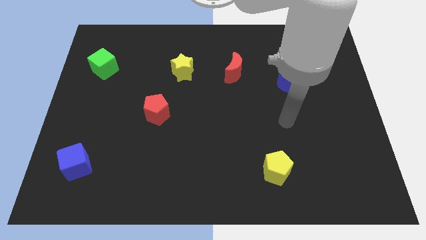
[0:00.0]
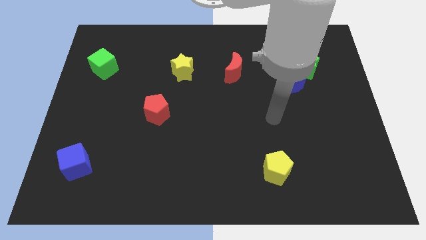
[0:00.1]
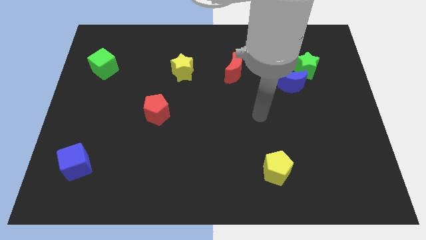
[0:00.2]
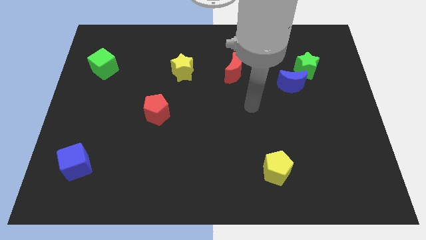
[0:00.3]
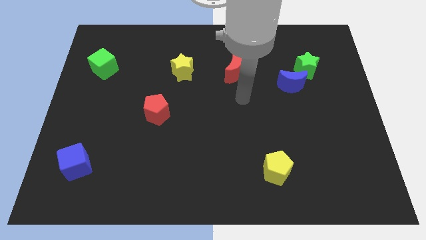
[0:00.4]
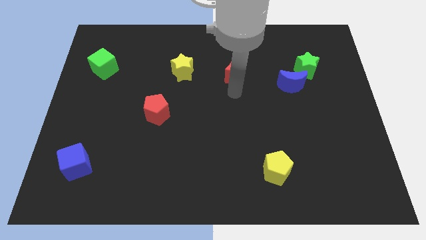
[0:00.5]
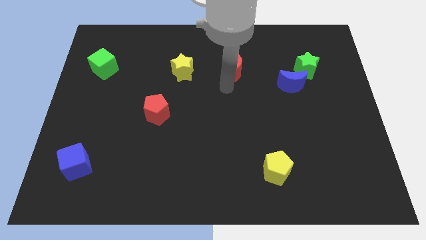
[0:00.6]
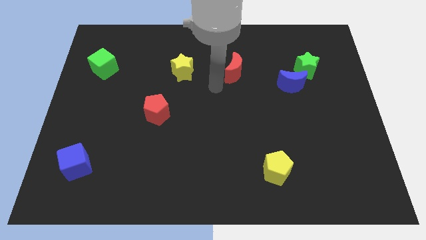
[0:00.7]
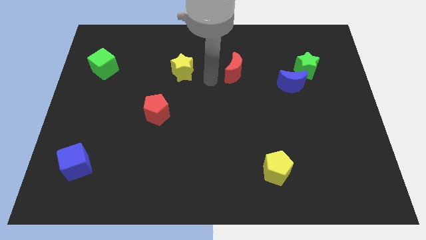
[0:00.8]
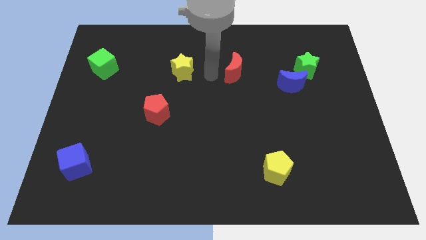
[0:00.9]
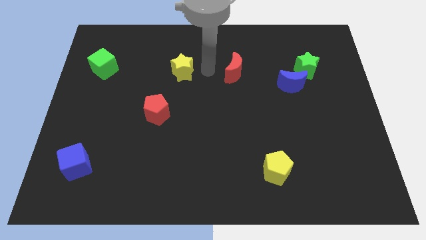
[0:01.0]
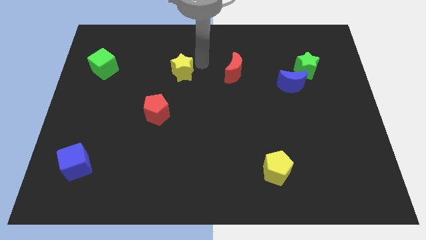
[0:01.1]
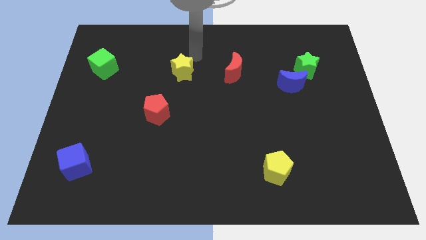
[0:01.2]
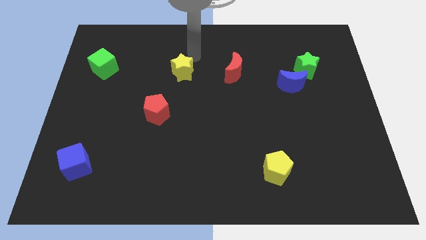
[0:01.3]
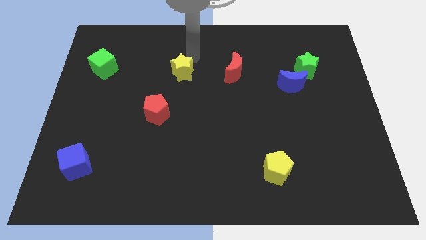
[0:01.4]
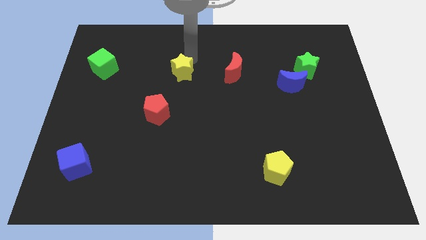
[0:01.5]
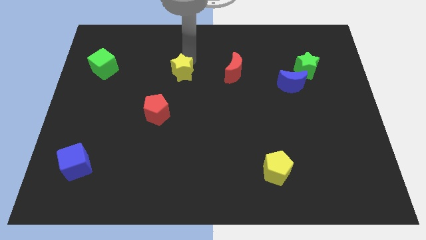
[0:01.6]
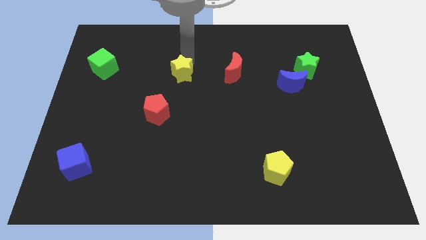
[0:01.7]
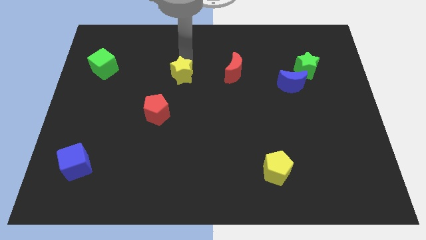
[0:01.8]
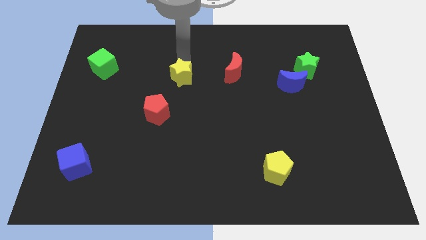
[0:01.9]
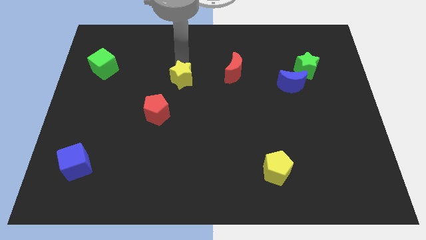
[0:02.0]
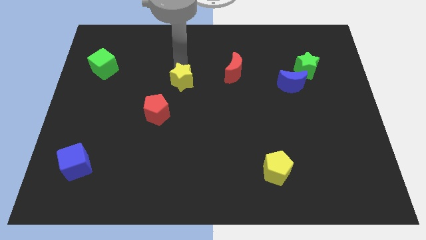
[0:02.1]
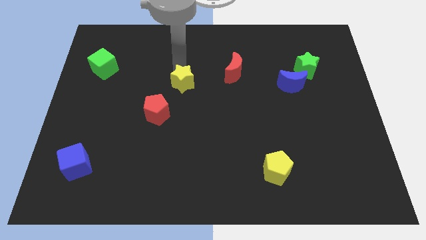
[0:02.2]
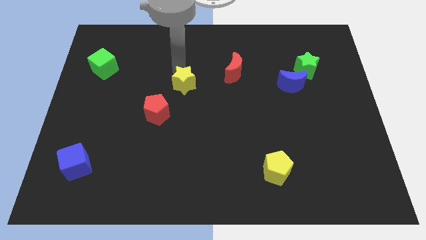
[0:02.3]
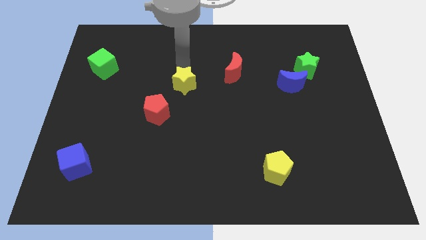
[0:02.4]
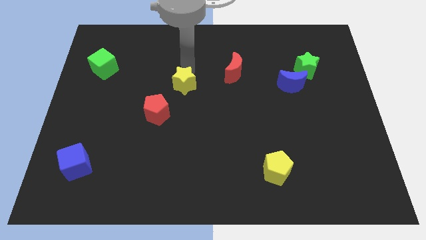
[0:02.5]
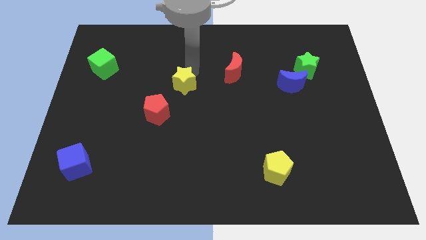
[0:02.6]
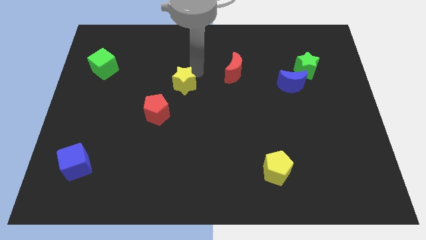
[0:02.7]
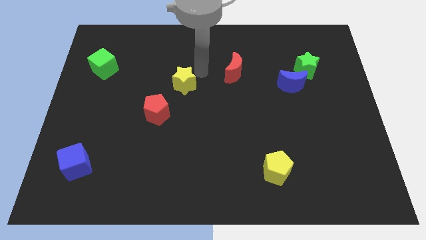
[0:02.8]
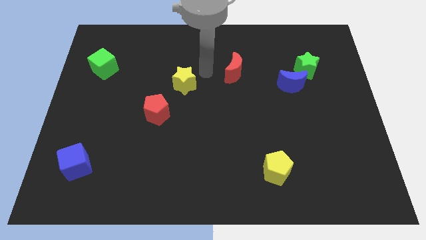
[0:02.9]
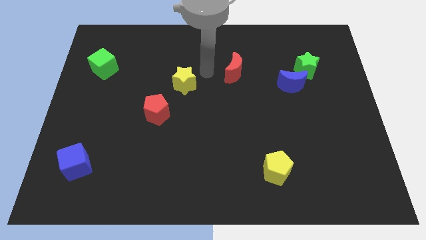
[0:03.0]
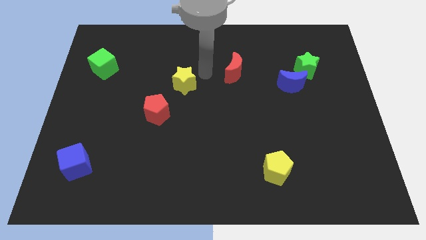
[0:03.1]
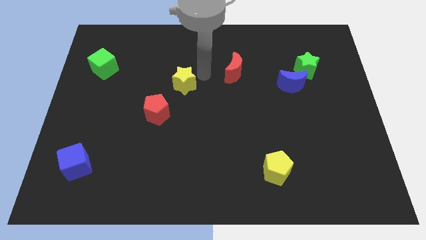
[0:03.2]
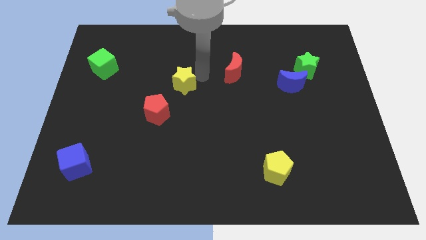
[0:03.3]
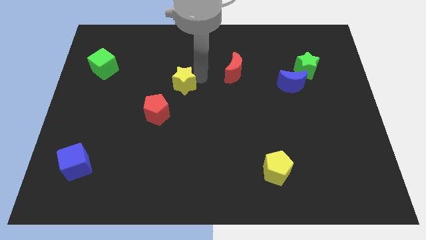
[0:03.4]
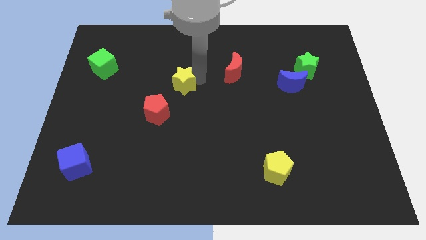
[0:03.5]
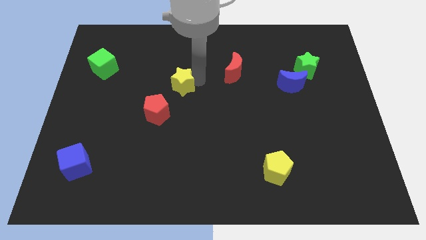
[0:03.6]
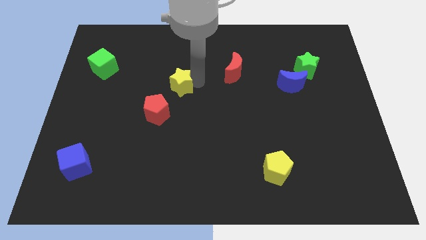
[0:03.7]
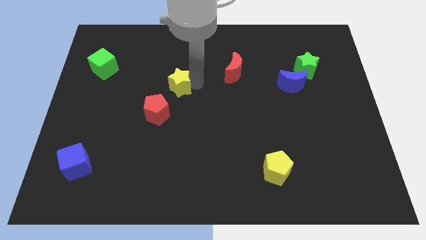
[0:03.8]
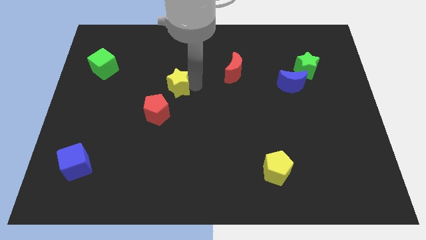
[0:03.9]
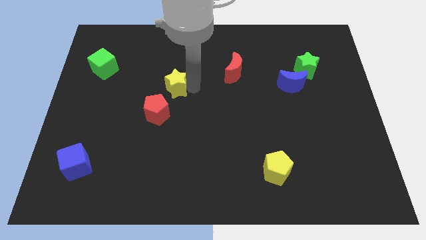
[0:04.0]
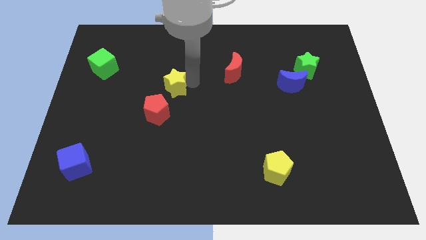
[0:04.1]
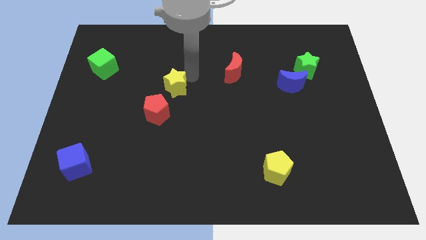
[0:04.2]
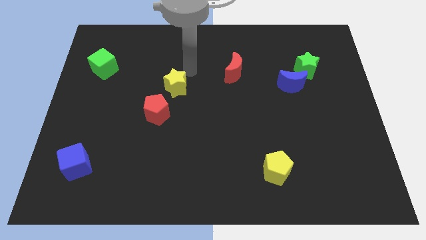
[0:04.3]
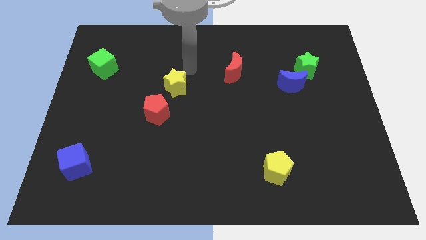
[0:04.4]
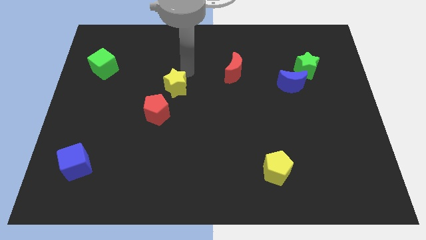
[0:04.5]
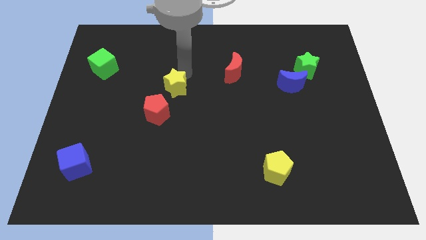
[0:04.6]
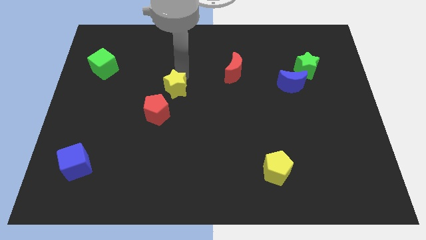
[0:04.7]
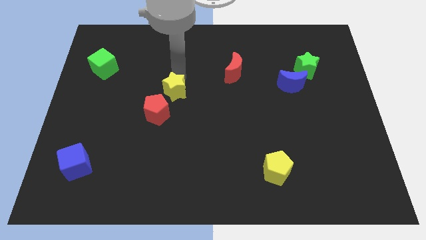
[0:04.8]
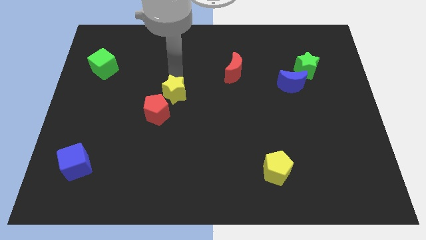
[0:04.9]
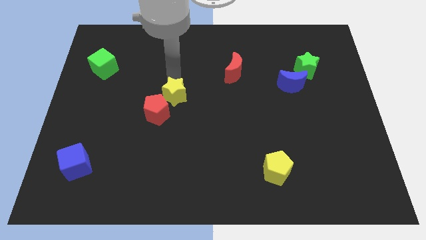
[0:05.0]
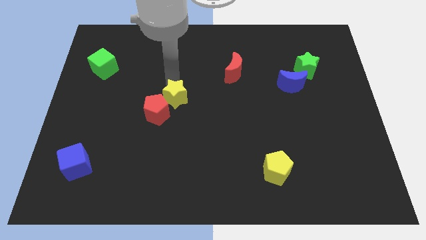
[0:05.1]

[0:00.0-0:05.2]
slide the yellow star towards the red pentagon

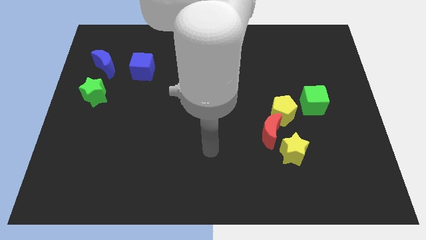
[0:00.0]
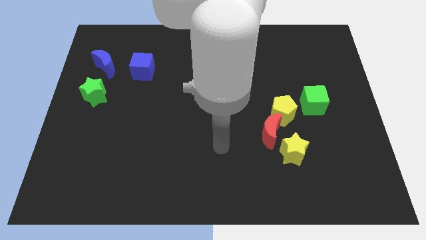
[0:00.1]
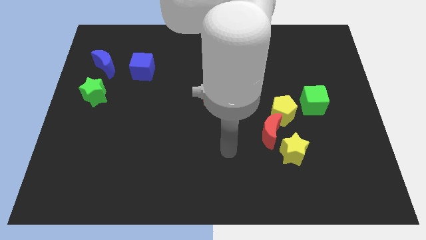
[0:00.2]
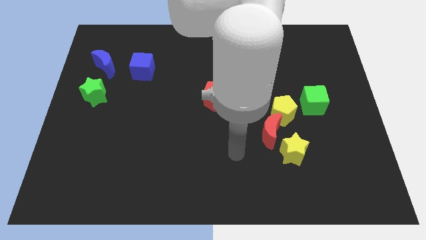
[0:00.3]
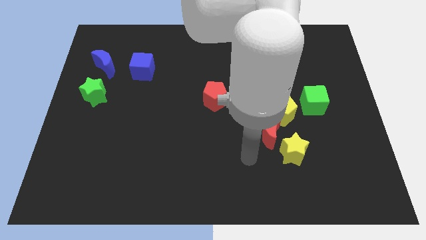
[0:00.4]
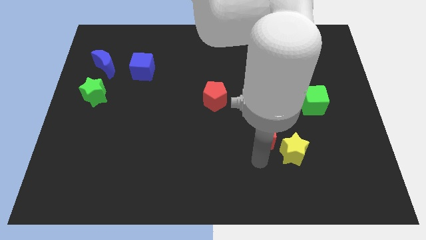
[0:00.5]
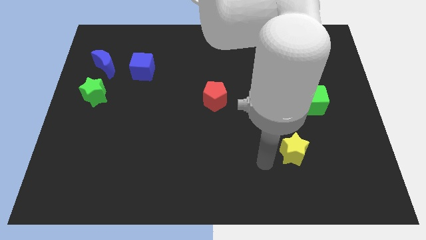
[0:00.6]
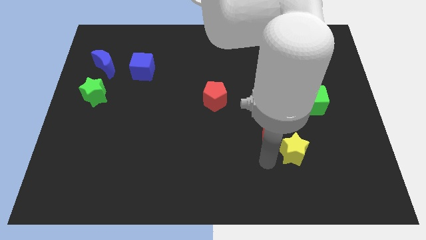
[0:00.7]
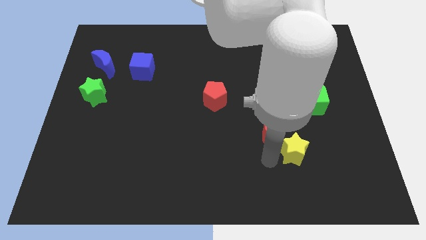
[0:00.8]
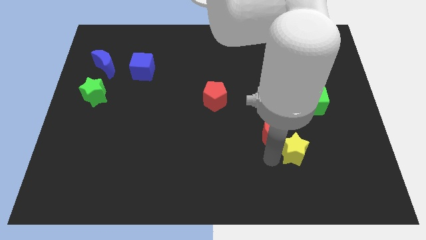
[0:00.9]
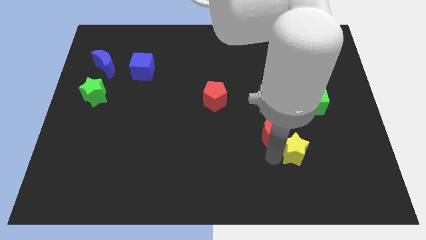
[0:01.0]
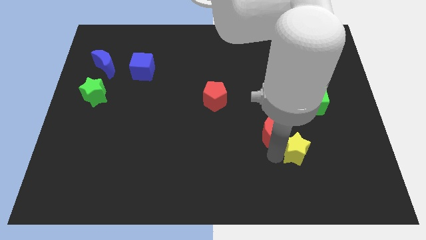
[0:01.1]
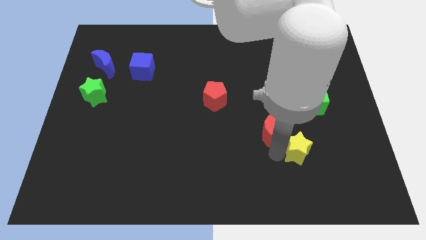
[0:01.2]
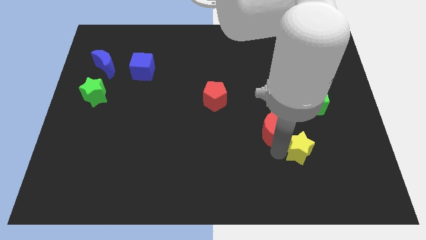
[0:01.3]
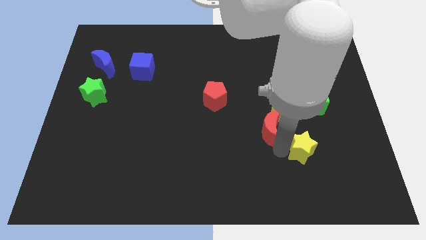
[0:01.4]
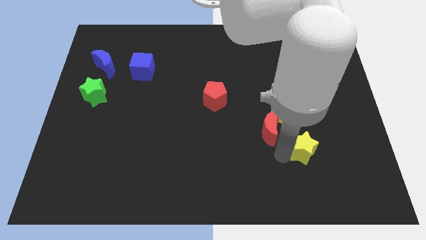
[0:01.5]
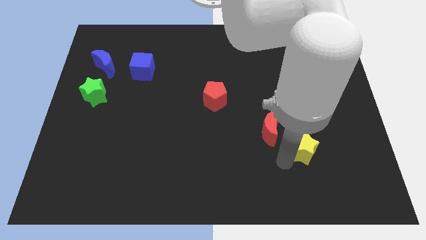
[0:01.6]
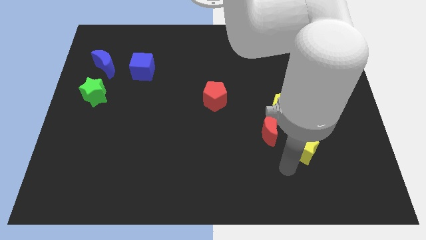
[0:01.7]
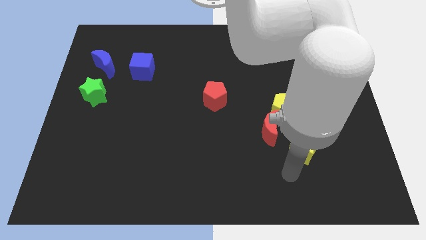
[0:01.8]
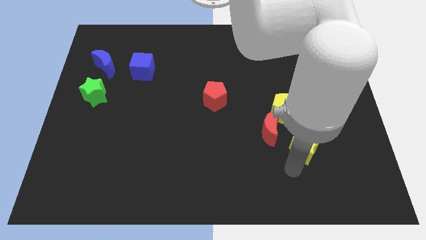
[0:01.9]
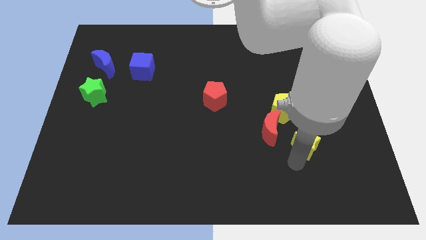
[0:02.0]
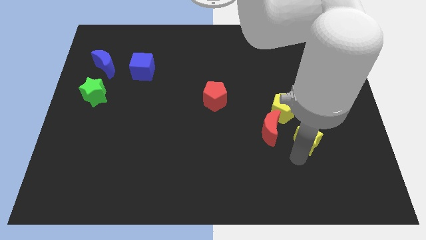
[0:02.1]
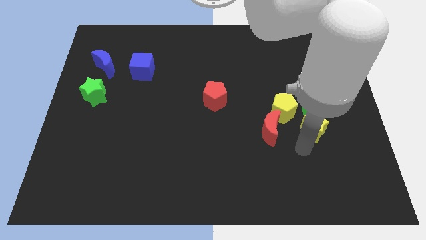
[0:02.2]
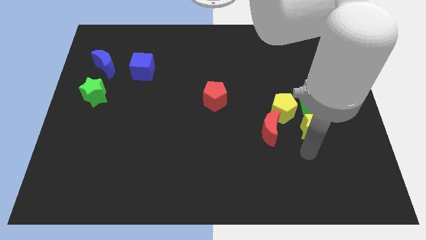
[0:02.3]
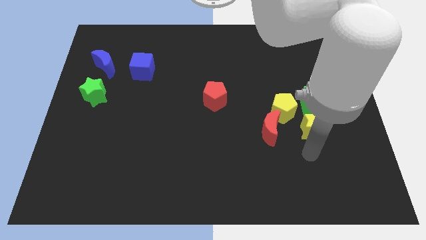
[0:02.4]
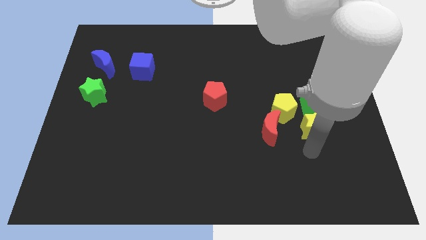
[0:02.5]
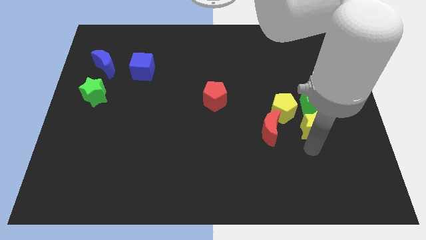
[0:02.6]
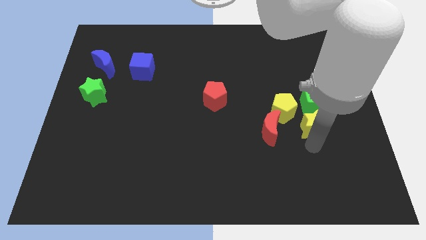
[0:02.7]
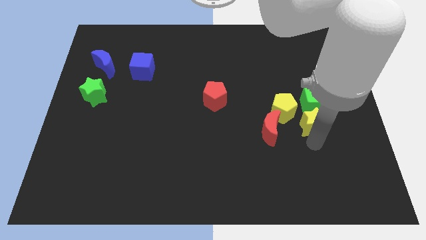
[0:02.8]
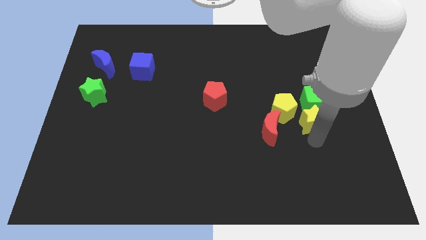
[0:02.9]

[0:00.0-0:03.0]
push the yellow star towards the green cube
